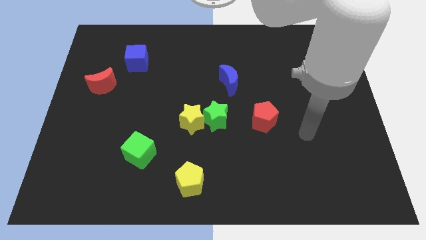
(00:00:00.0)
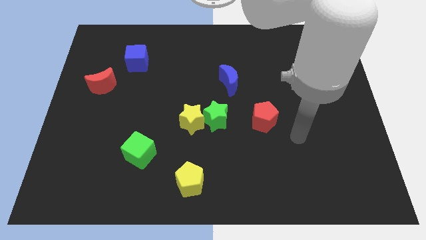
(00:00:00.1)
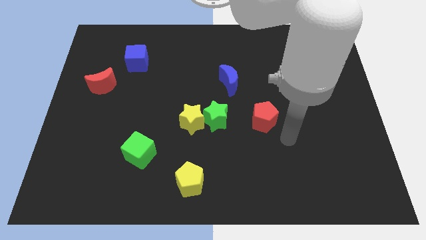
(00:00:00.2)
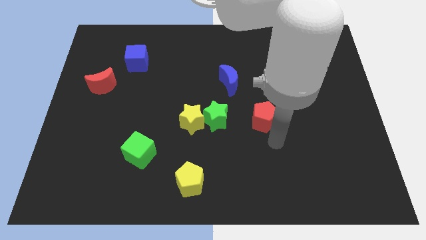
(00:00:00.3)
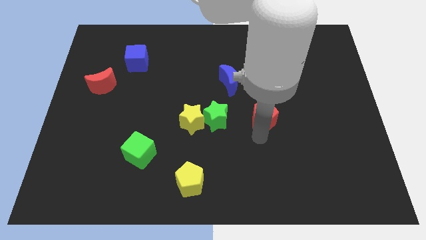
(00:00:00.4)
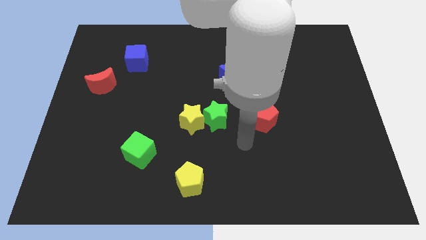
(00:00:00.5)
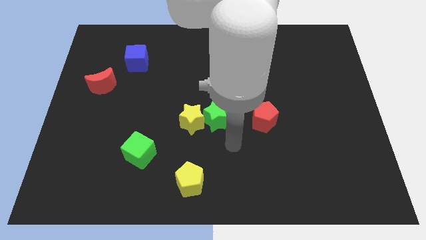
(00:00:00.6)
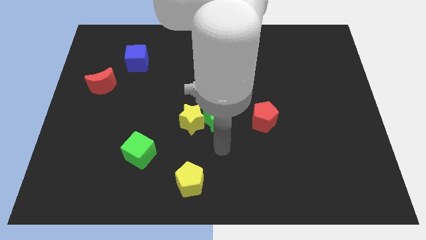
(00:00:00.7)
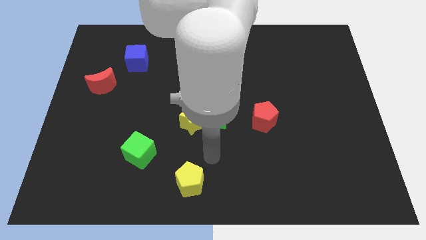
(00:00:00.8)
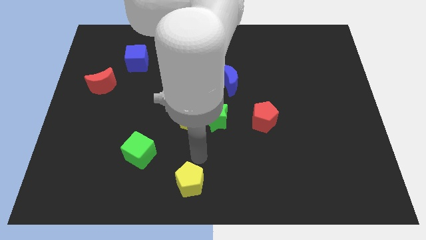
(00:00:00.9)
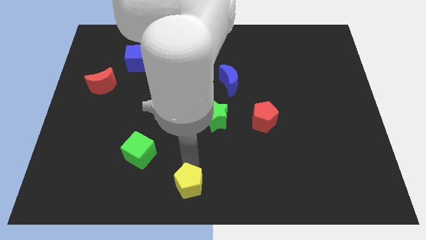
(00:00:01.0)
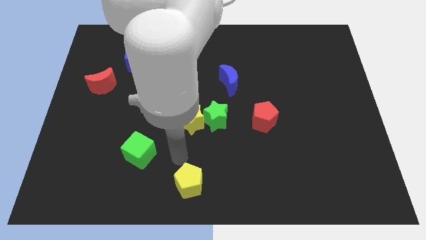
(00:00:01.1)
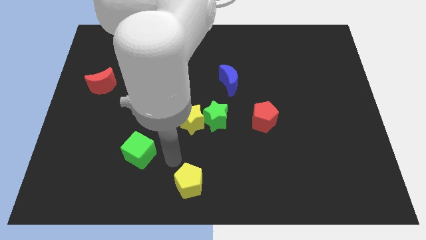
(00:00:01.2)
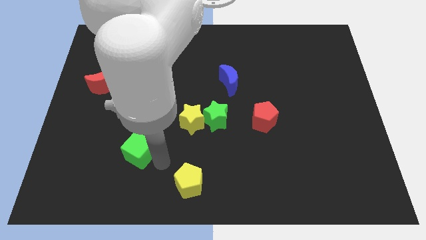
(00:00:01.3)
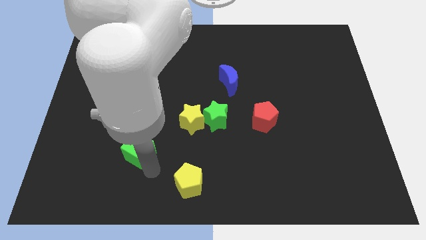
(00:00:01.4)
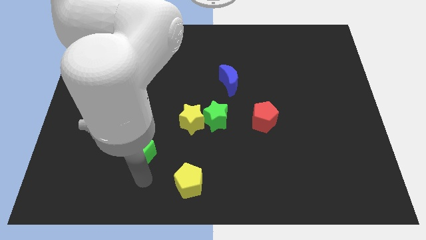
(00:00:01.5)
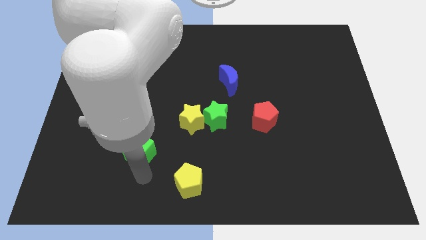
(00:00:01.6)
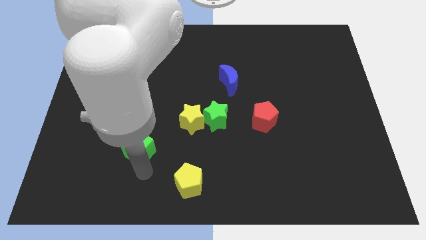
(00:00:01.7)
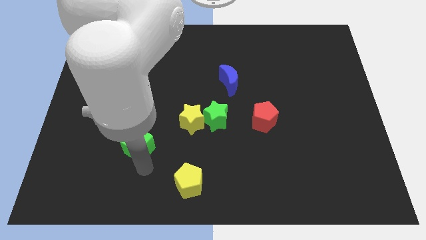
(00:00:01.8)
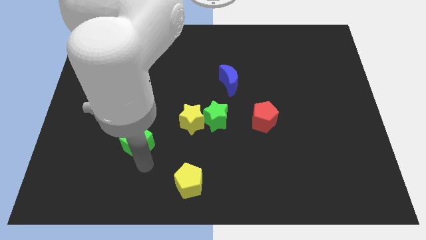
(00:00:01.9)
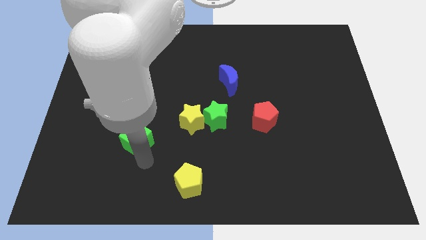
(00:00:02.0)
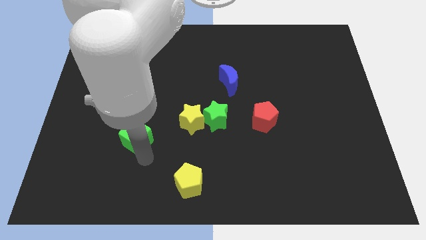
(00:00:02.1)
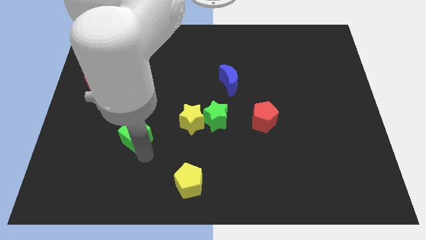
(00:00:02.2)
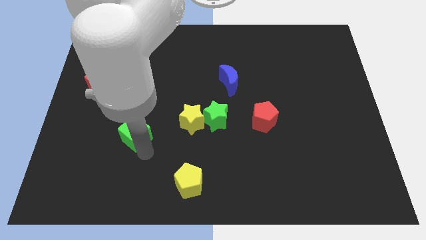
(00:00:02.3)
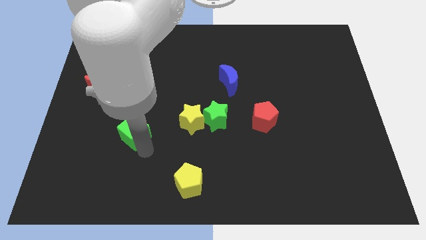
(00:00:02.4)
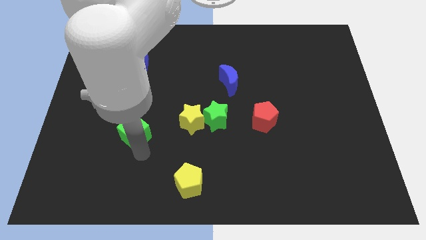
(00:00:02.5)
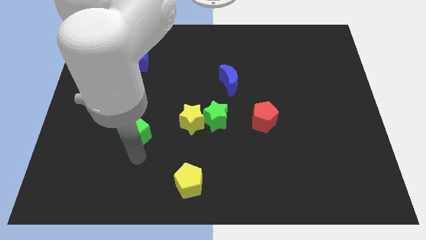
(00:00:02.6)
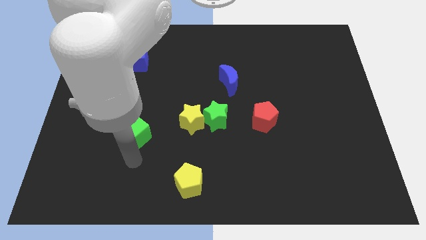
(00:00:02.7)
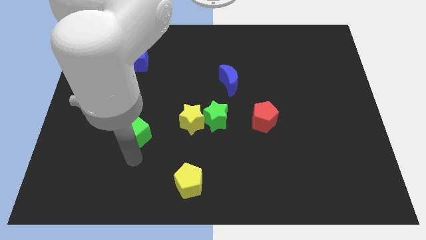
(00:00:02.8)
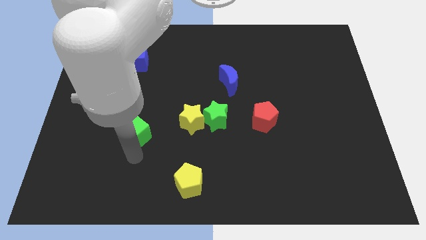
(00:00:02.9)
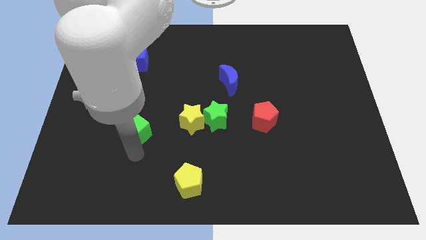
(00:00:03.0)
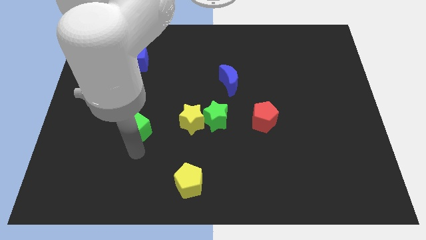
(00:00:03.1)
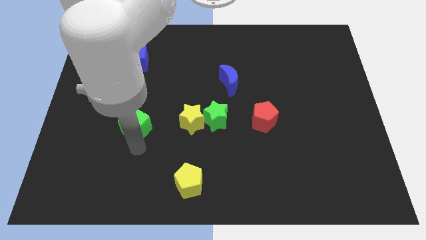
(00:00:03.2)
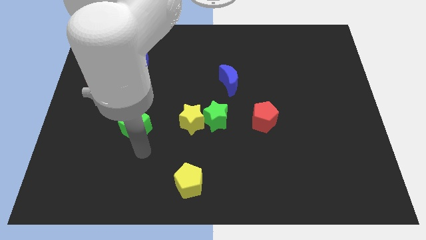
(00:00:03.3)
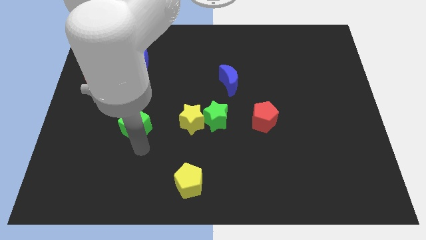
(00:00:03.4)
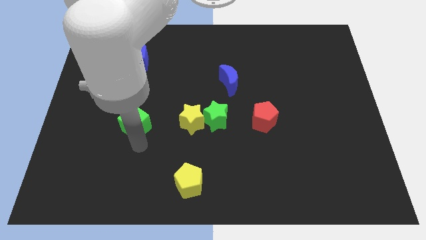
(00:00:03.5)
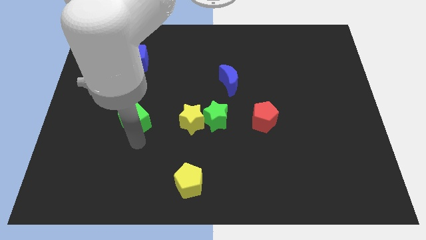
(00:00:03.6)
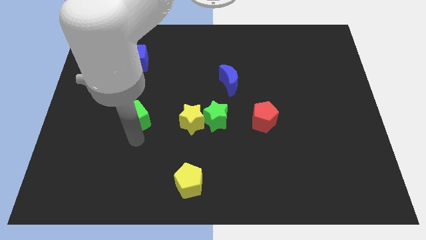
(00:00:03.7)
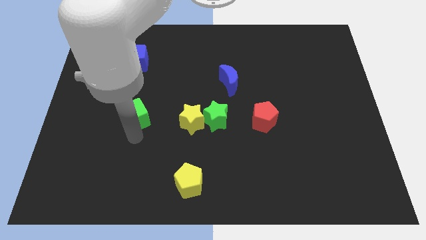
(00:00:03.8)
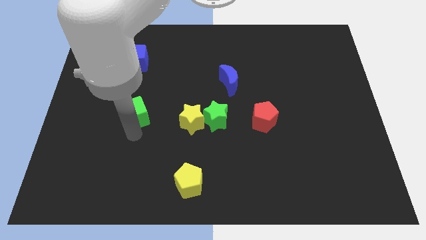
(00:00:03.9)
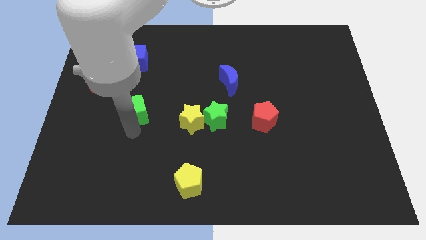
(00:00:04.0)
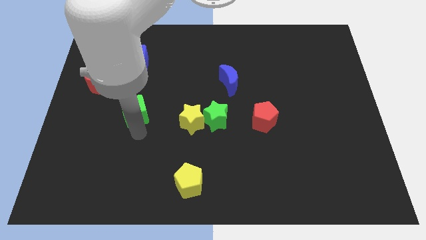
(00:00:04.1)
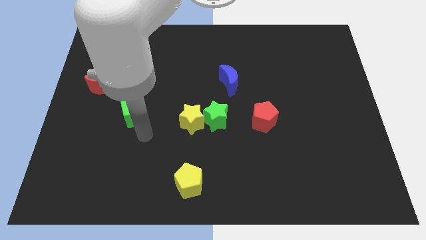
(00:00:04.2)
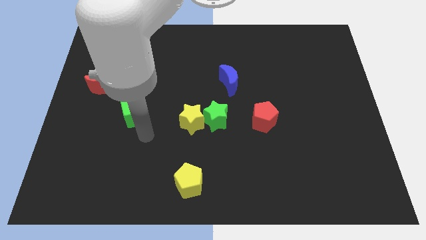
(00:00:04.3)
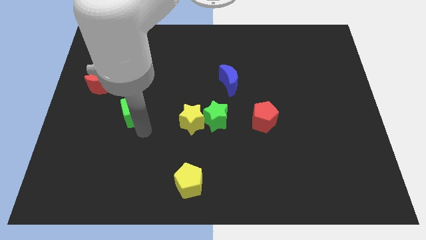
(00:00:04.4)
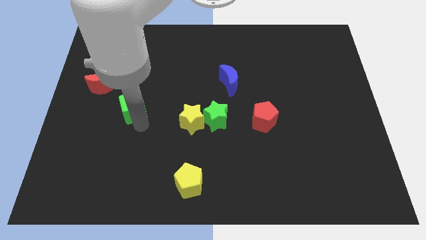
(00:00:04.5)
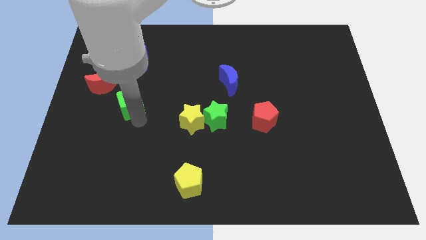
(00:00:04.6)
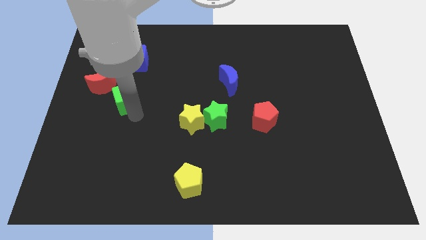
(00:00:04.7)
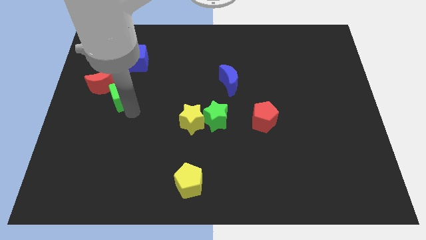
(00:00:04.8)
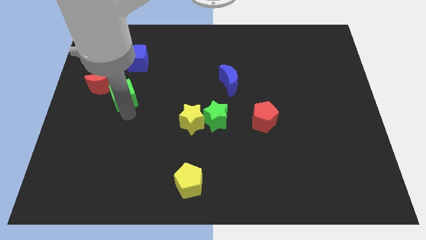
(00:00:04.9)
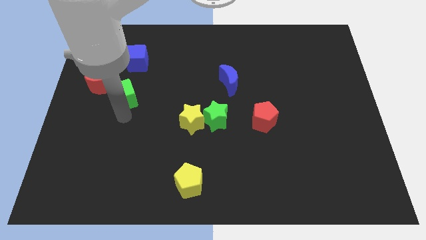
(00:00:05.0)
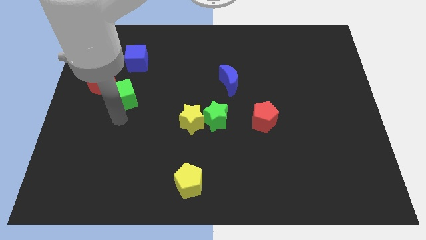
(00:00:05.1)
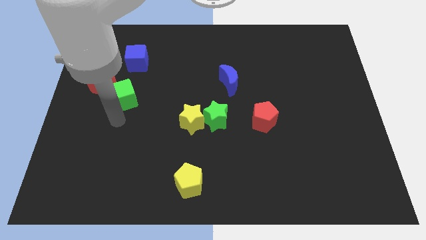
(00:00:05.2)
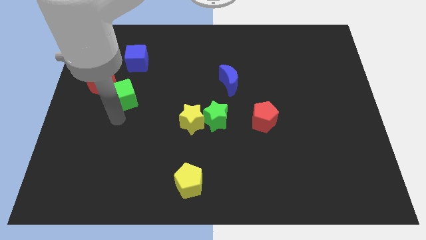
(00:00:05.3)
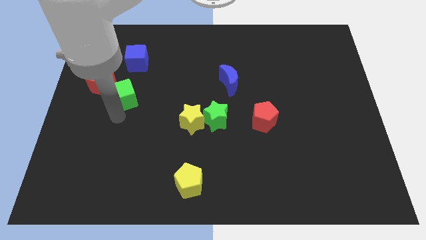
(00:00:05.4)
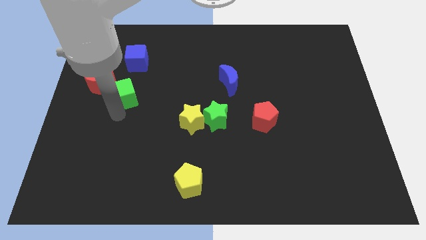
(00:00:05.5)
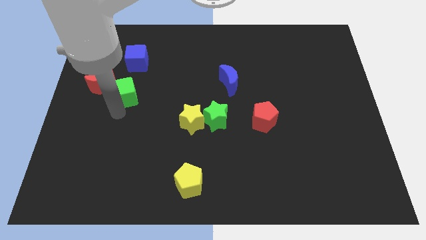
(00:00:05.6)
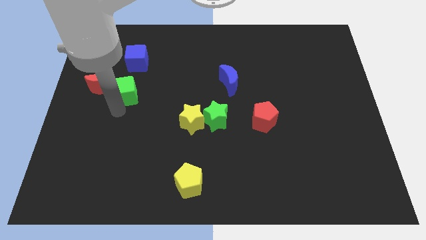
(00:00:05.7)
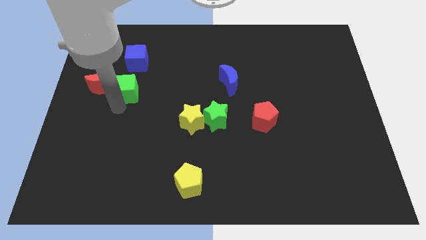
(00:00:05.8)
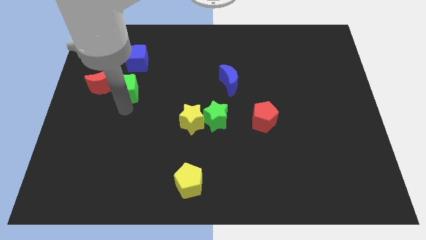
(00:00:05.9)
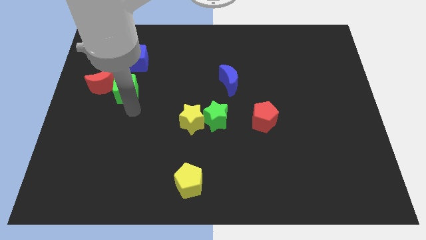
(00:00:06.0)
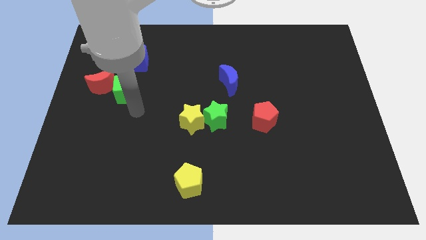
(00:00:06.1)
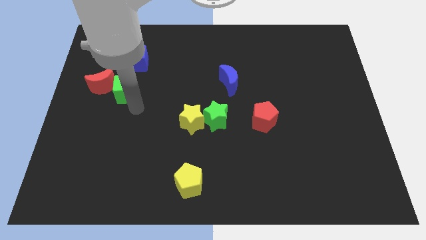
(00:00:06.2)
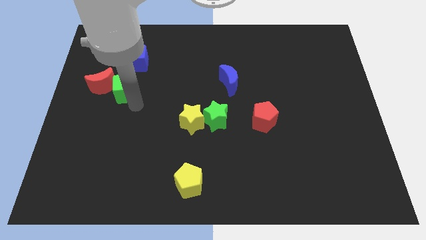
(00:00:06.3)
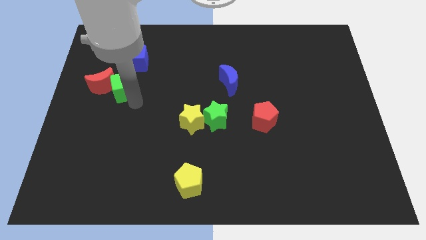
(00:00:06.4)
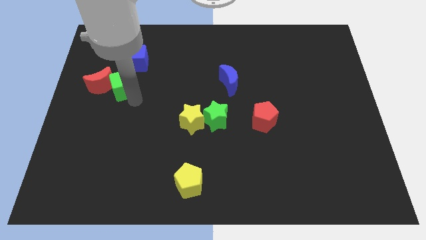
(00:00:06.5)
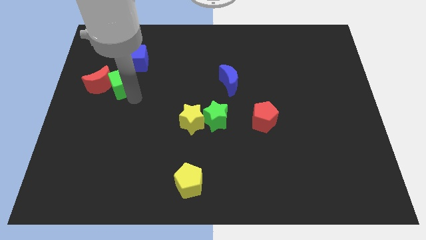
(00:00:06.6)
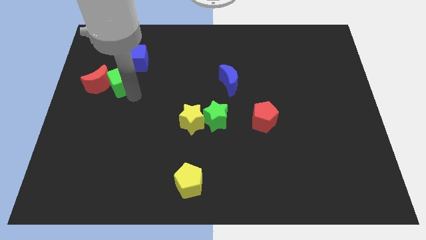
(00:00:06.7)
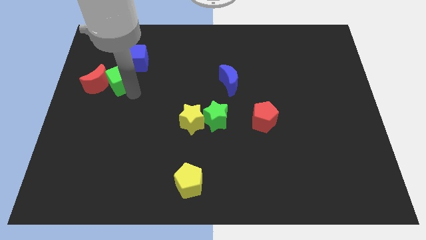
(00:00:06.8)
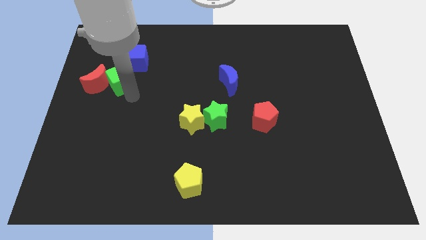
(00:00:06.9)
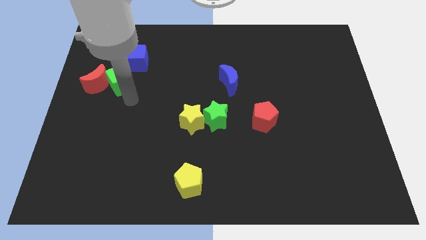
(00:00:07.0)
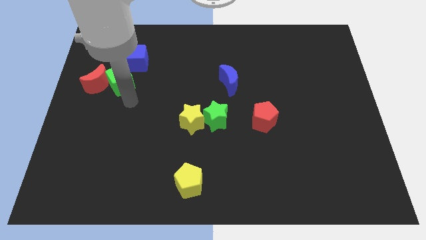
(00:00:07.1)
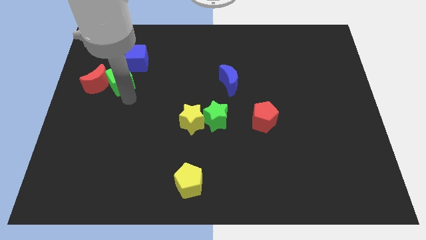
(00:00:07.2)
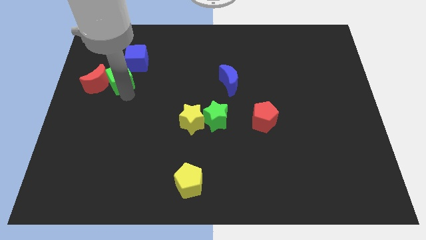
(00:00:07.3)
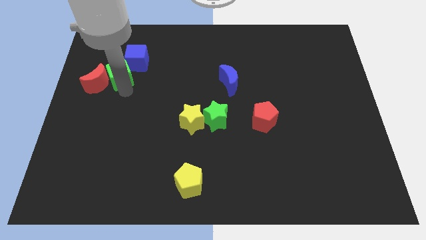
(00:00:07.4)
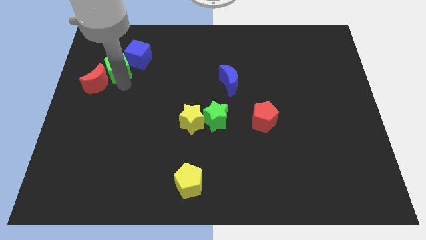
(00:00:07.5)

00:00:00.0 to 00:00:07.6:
push the green cube to the top of the red moon
